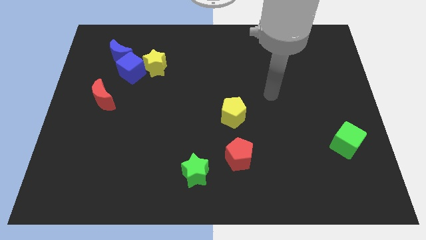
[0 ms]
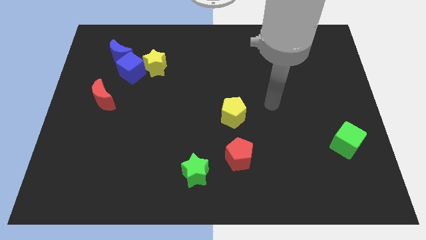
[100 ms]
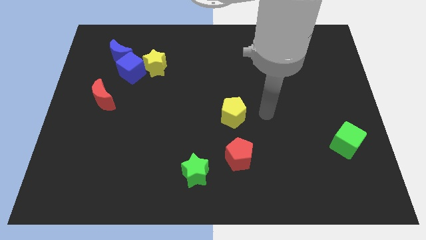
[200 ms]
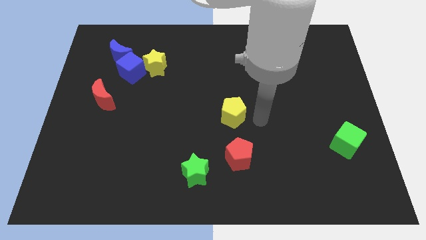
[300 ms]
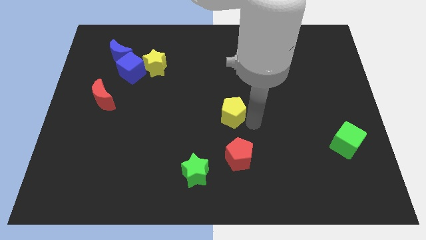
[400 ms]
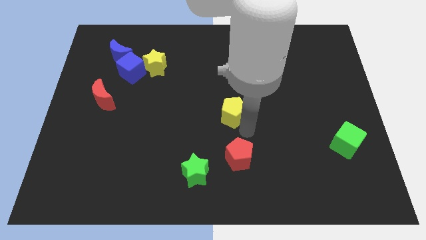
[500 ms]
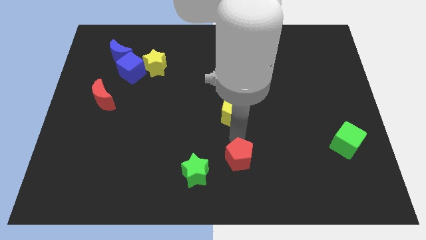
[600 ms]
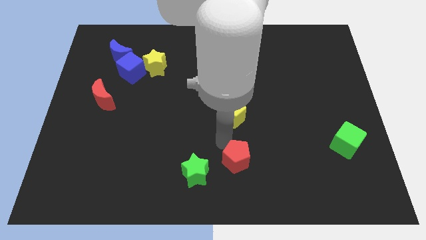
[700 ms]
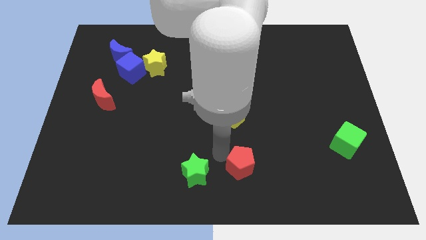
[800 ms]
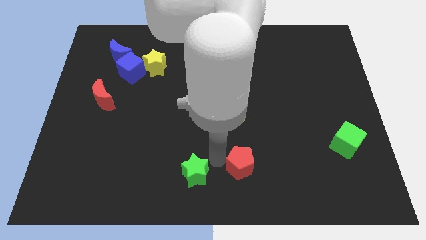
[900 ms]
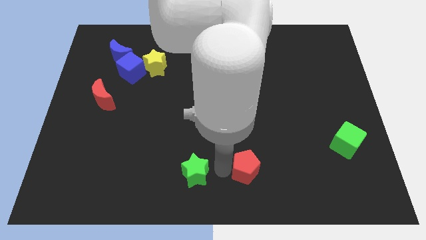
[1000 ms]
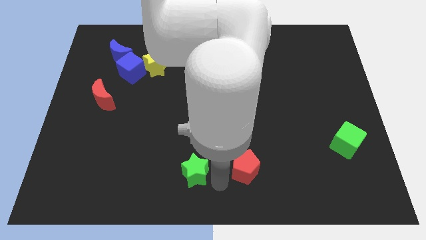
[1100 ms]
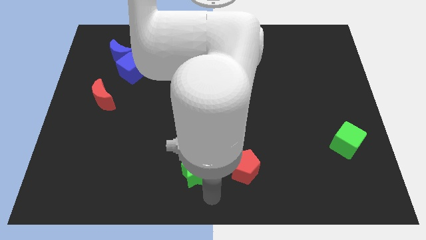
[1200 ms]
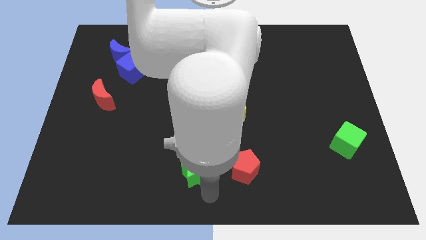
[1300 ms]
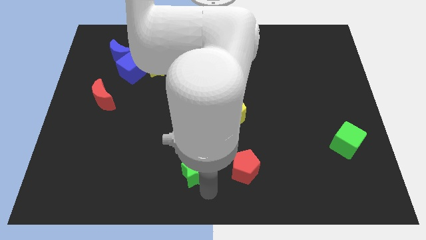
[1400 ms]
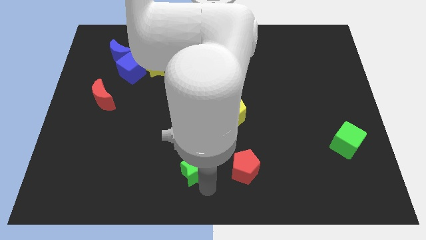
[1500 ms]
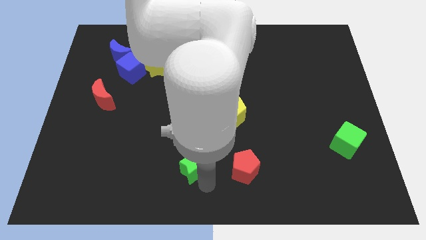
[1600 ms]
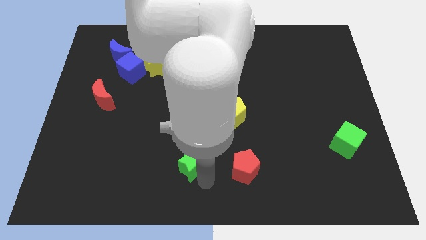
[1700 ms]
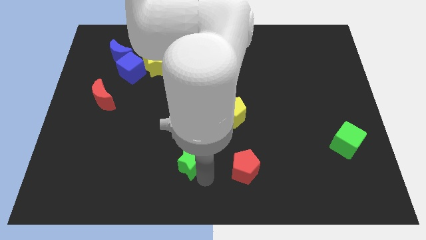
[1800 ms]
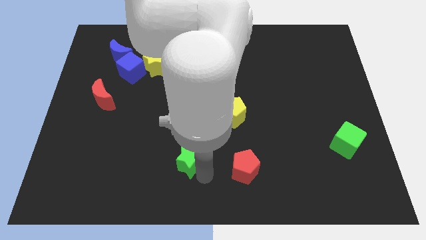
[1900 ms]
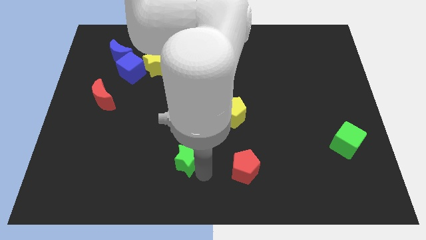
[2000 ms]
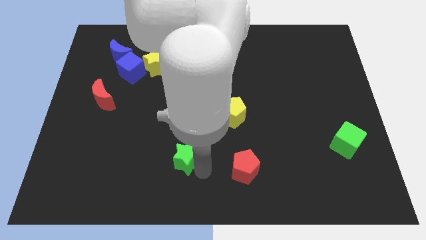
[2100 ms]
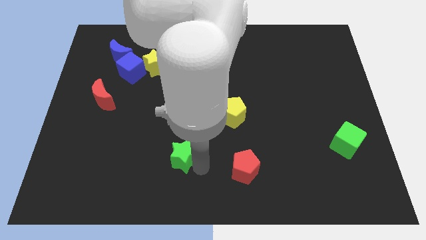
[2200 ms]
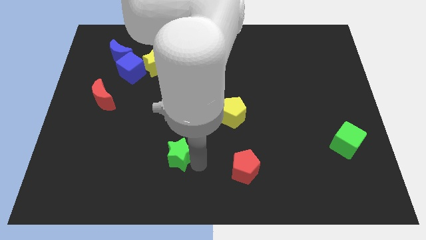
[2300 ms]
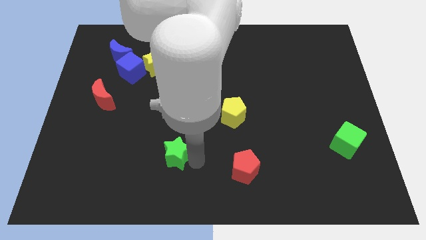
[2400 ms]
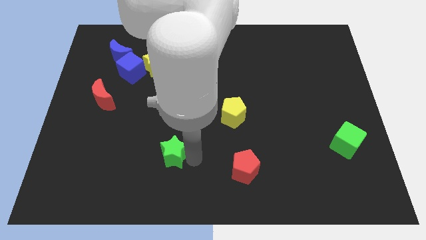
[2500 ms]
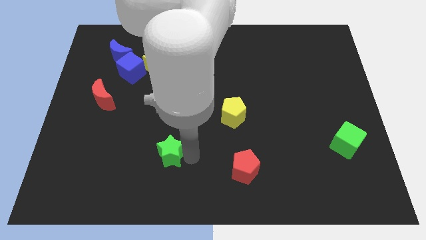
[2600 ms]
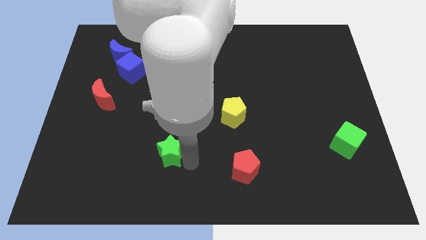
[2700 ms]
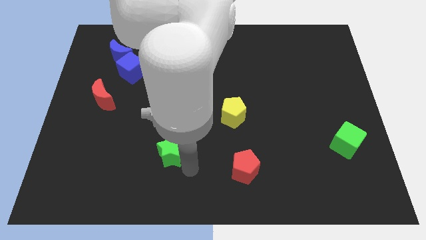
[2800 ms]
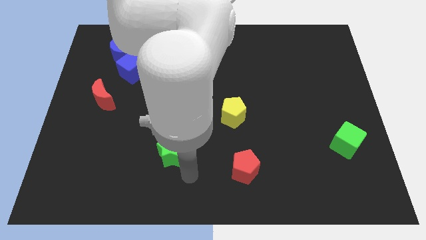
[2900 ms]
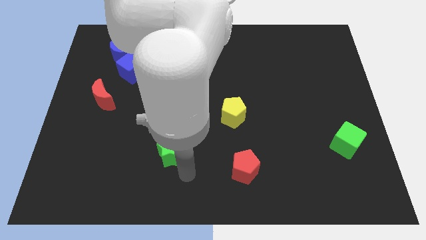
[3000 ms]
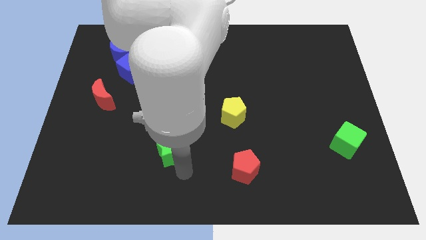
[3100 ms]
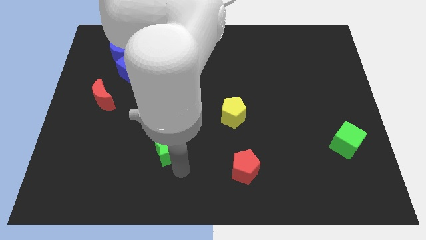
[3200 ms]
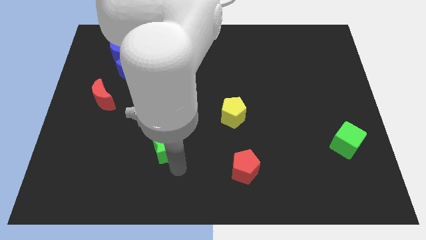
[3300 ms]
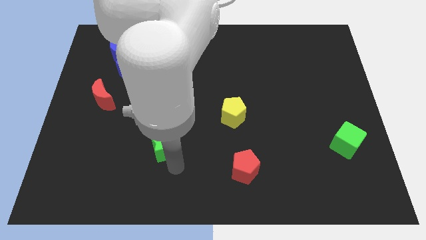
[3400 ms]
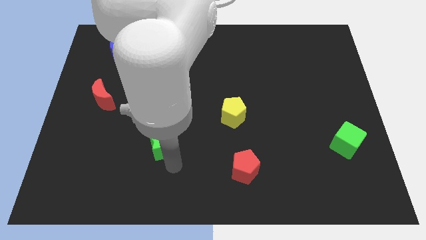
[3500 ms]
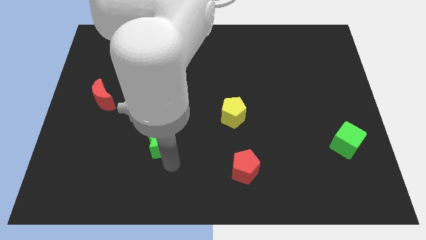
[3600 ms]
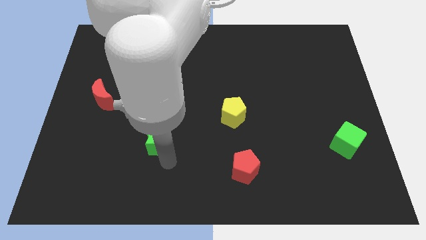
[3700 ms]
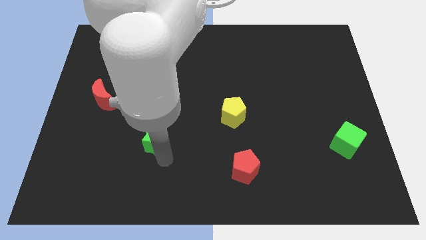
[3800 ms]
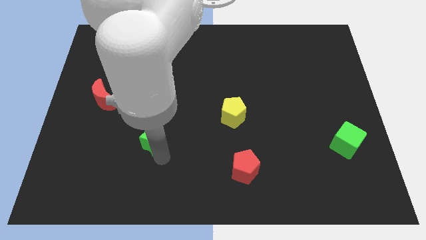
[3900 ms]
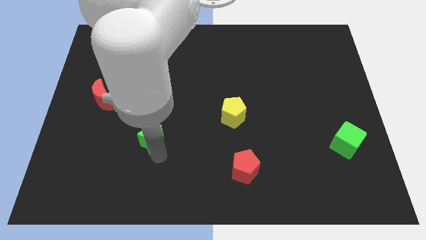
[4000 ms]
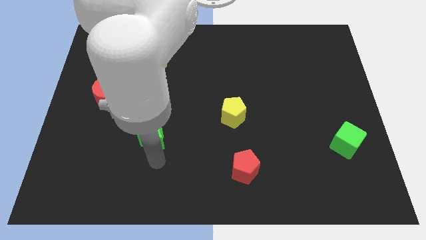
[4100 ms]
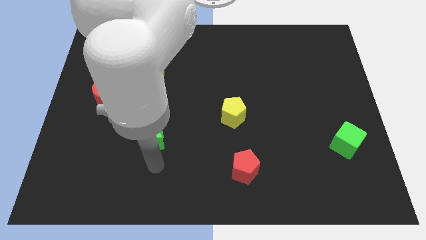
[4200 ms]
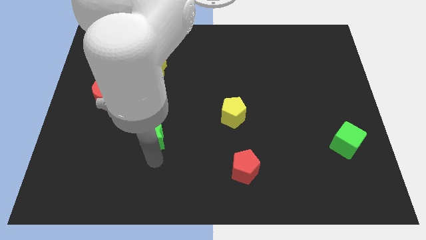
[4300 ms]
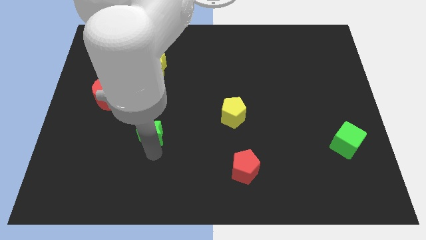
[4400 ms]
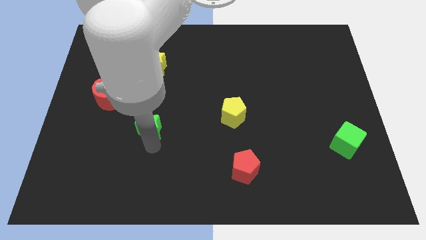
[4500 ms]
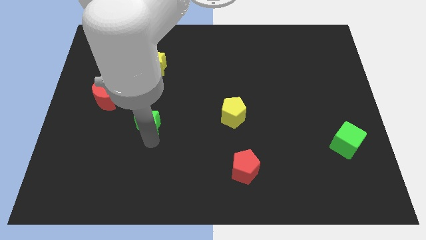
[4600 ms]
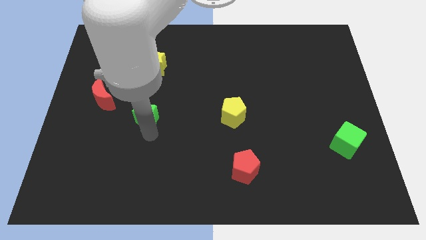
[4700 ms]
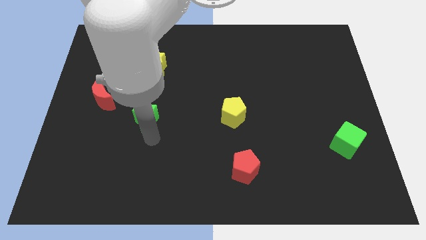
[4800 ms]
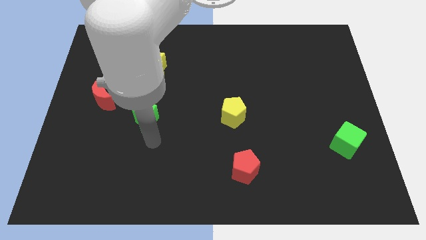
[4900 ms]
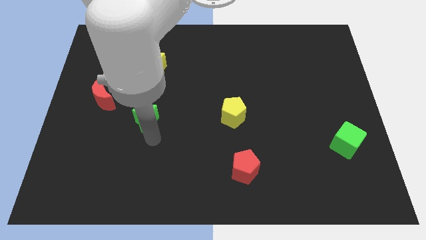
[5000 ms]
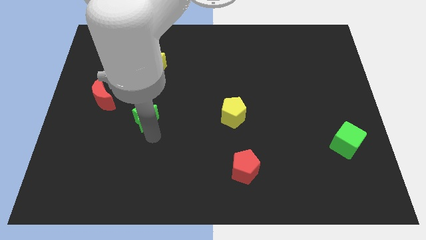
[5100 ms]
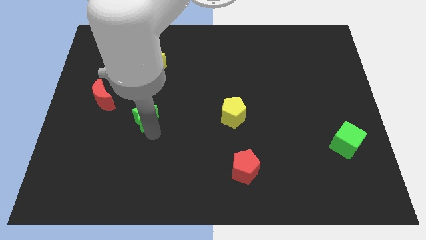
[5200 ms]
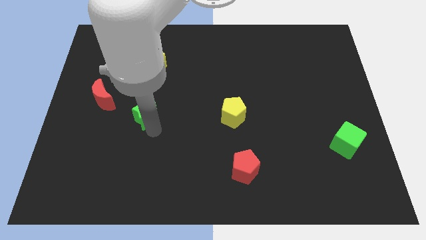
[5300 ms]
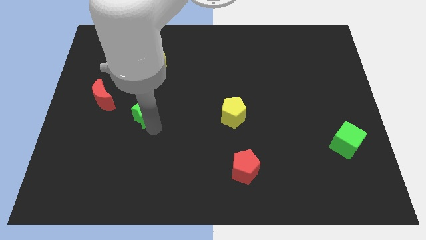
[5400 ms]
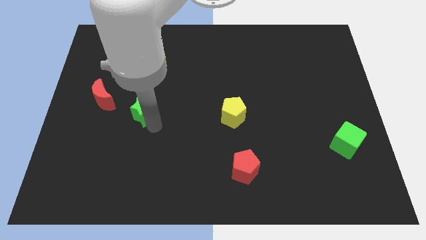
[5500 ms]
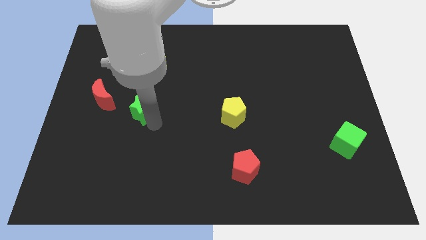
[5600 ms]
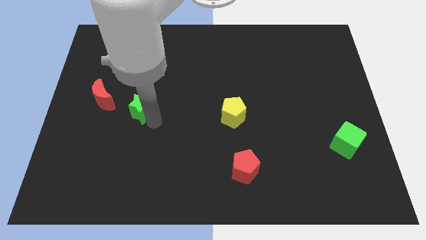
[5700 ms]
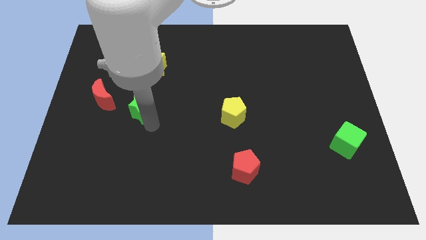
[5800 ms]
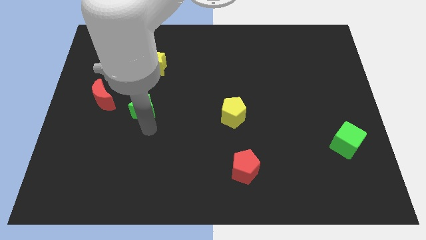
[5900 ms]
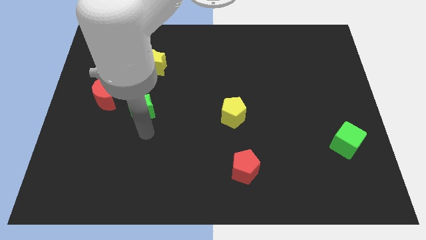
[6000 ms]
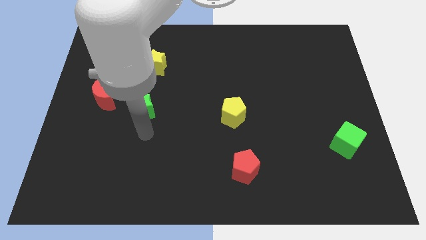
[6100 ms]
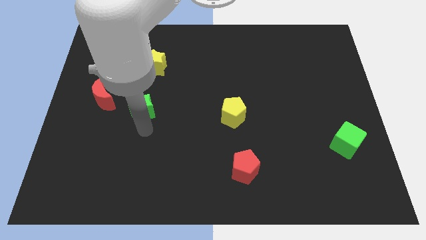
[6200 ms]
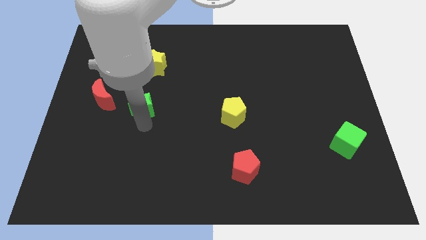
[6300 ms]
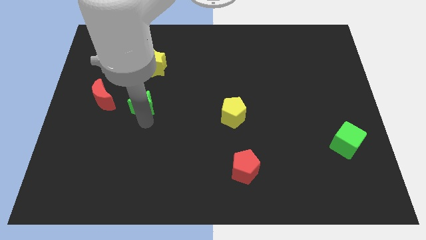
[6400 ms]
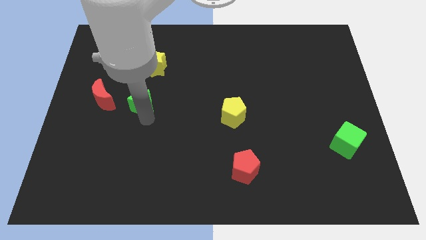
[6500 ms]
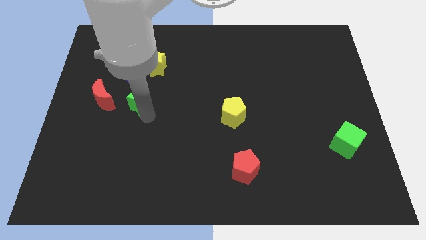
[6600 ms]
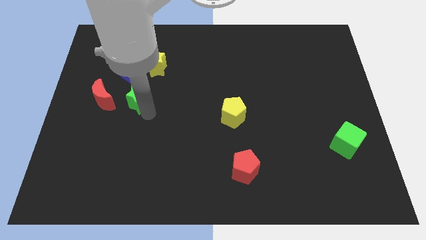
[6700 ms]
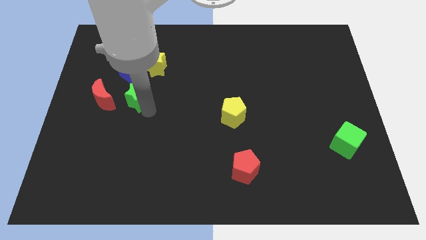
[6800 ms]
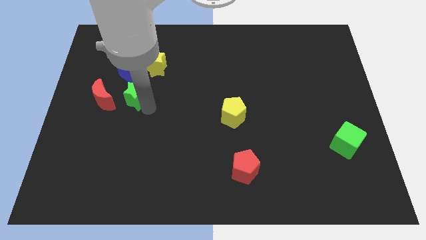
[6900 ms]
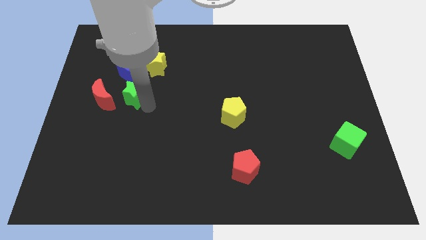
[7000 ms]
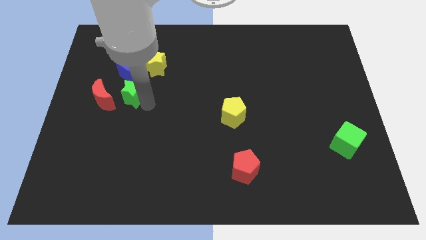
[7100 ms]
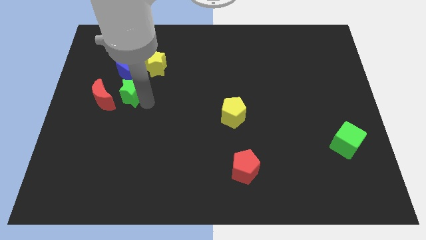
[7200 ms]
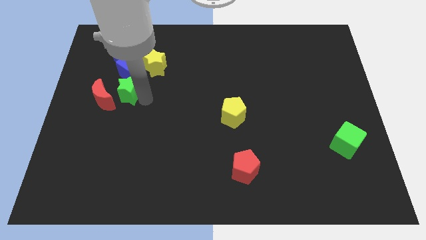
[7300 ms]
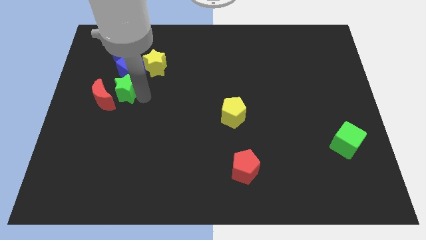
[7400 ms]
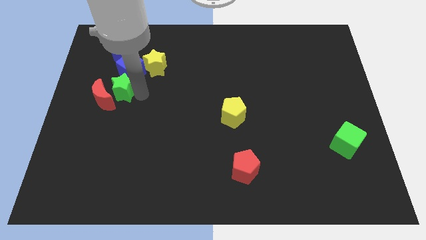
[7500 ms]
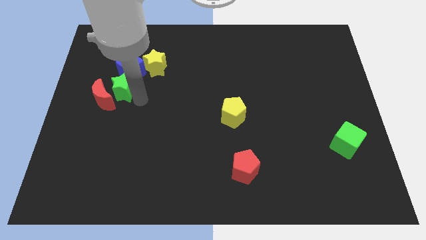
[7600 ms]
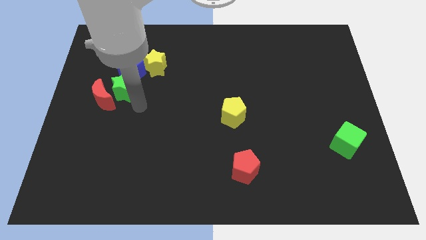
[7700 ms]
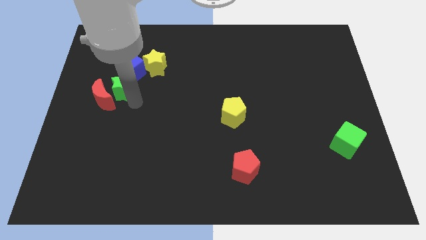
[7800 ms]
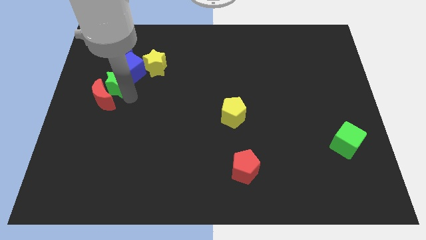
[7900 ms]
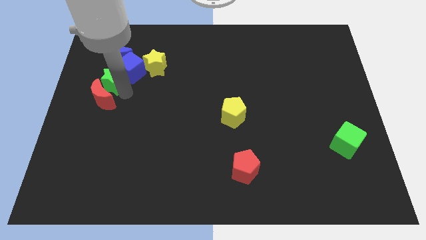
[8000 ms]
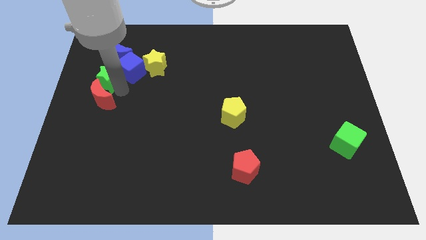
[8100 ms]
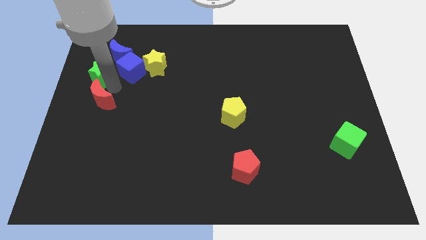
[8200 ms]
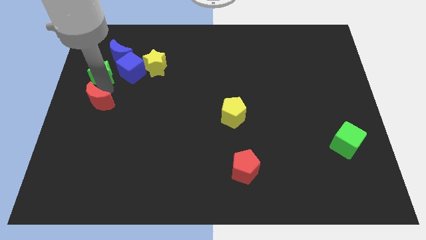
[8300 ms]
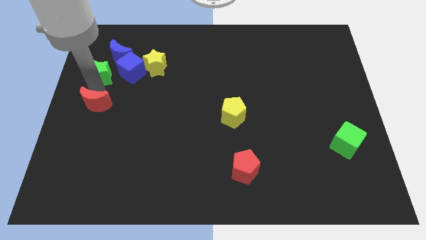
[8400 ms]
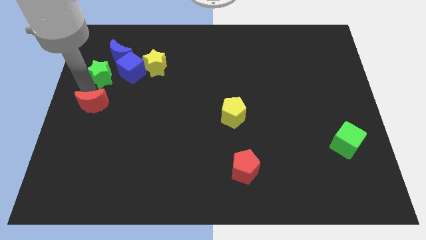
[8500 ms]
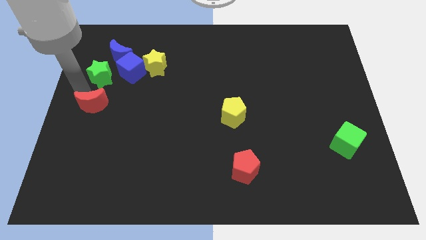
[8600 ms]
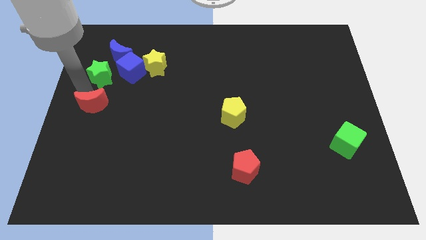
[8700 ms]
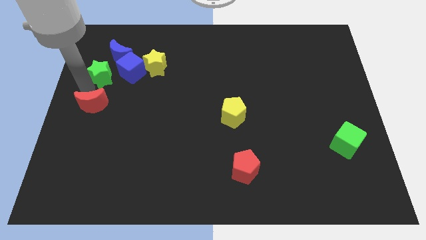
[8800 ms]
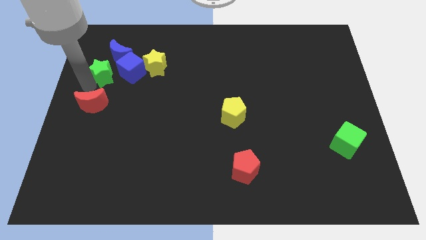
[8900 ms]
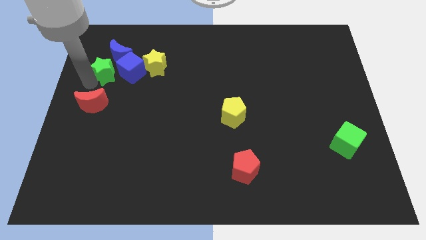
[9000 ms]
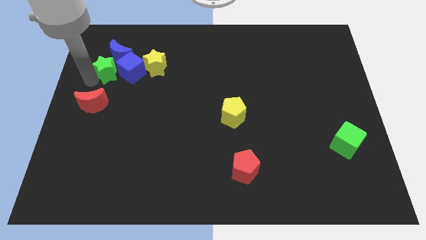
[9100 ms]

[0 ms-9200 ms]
slide the green star close to the blue moon
